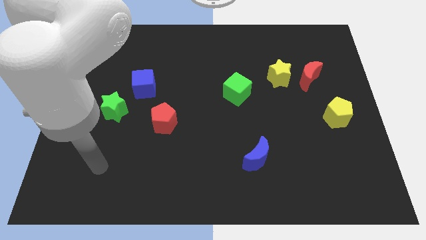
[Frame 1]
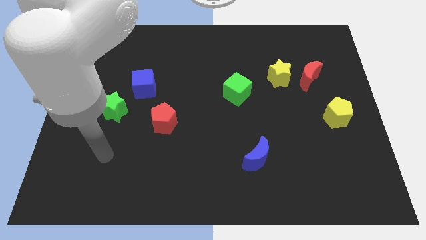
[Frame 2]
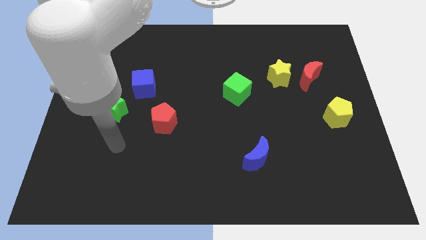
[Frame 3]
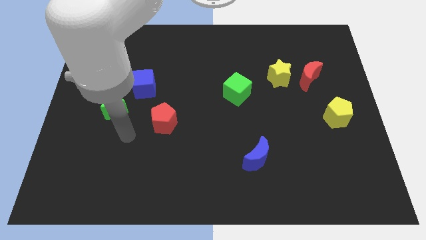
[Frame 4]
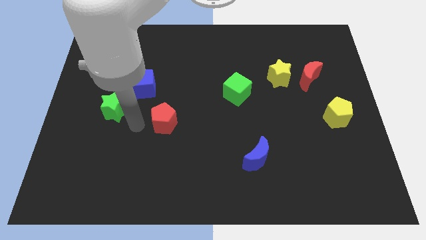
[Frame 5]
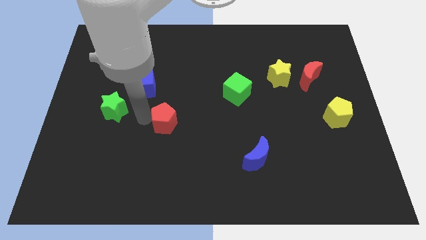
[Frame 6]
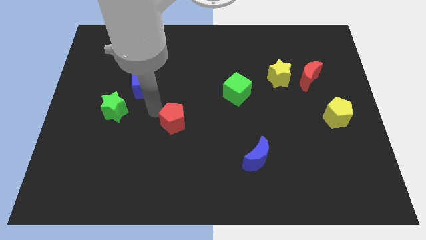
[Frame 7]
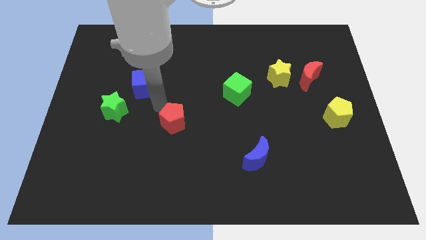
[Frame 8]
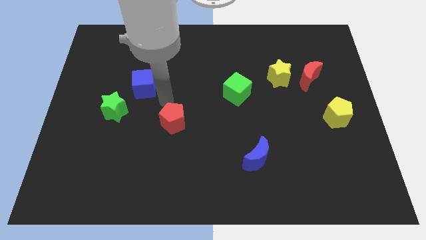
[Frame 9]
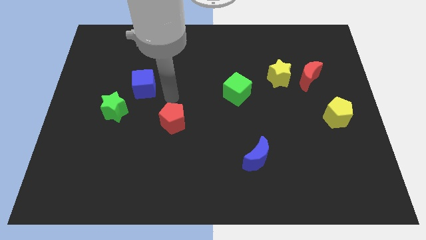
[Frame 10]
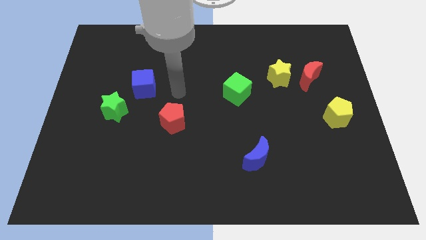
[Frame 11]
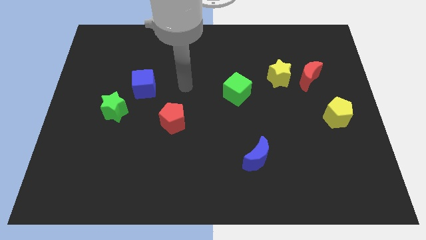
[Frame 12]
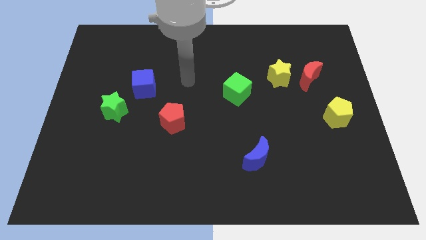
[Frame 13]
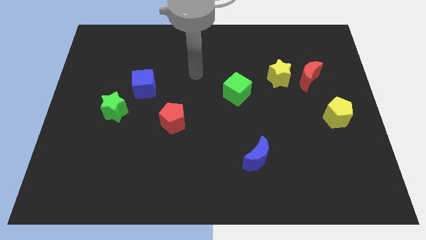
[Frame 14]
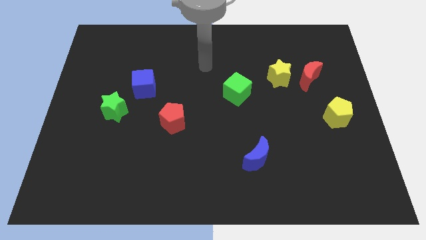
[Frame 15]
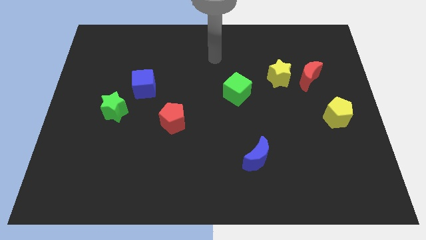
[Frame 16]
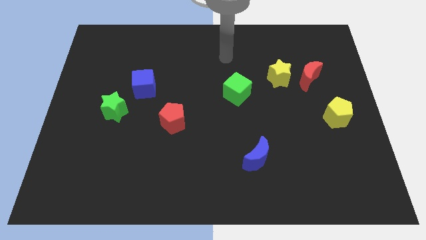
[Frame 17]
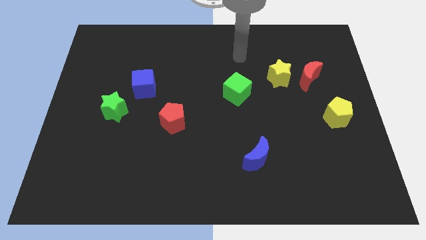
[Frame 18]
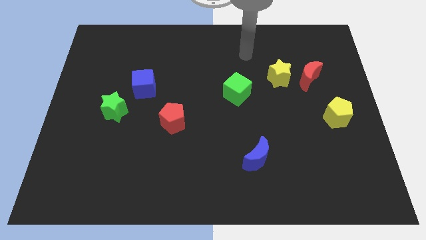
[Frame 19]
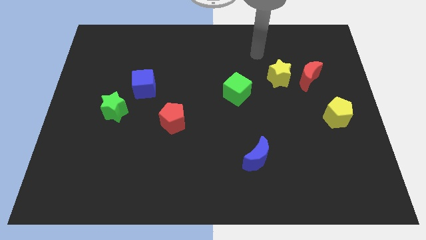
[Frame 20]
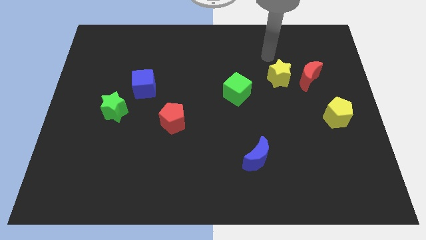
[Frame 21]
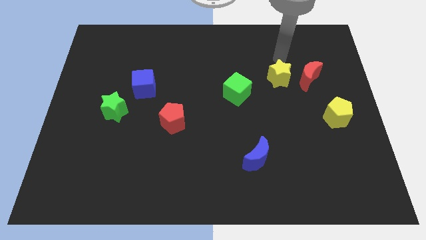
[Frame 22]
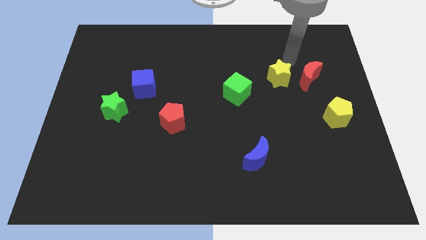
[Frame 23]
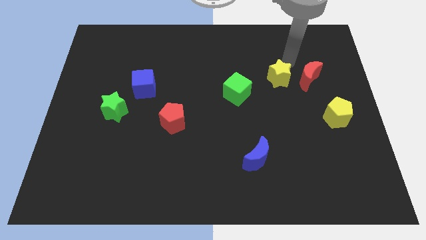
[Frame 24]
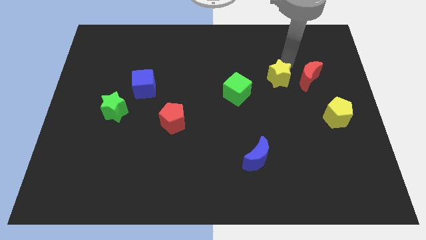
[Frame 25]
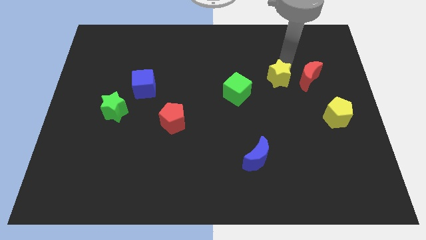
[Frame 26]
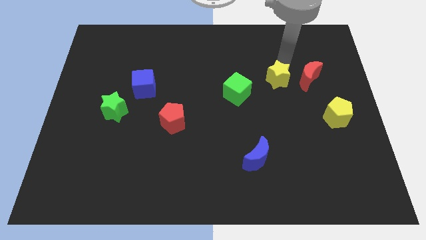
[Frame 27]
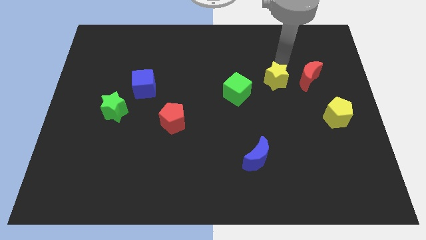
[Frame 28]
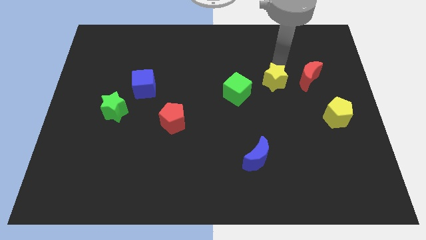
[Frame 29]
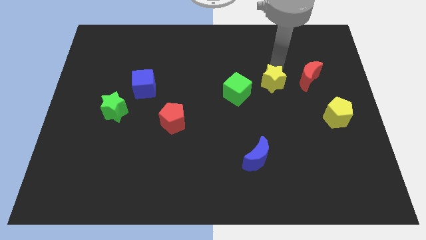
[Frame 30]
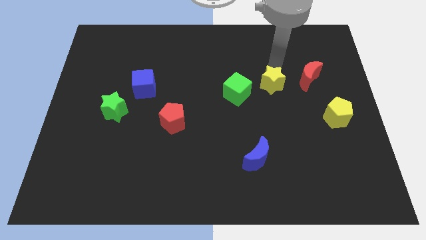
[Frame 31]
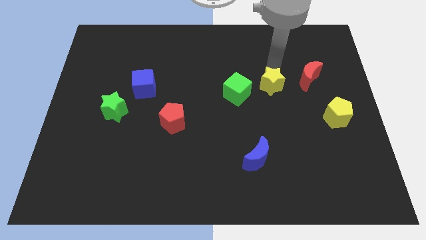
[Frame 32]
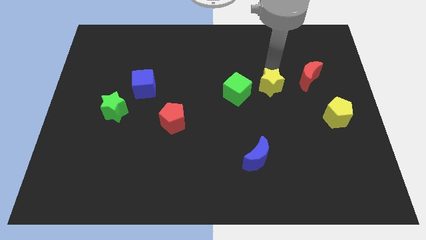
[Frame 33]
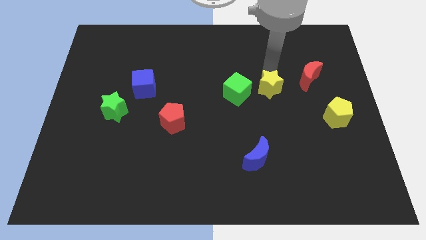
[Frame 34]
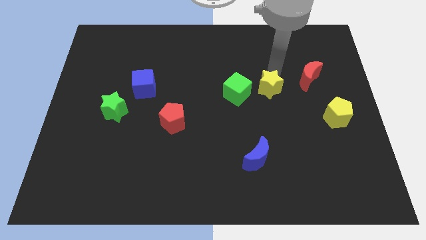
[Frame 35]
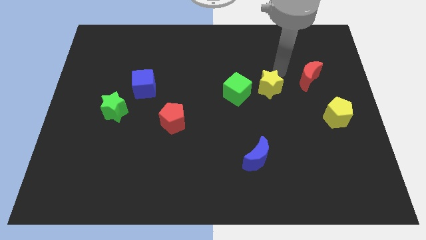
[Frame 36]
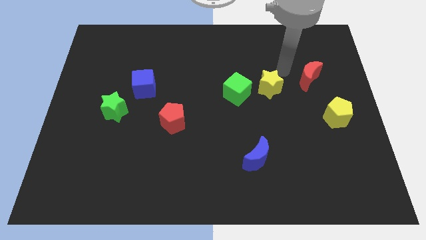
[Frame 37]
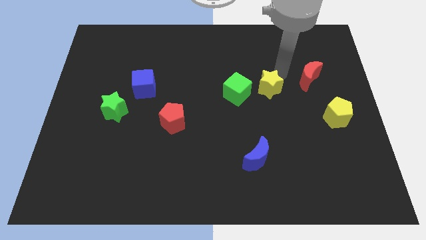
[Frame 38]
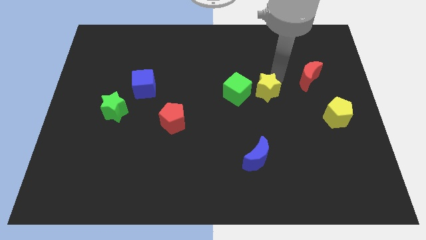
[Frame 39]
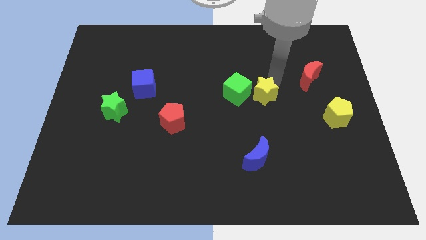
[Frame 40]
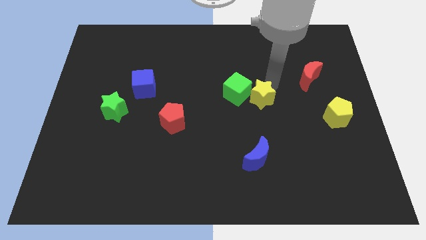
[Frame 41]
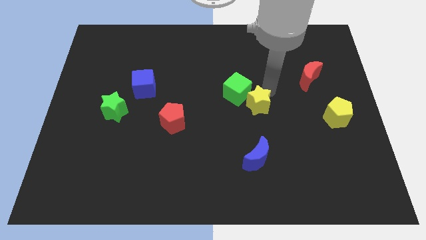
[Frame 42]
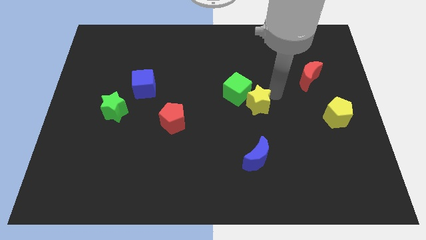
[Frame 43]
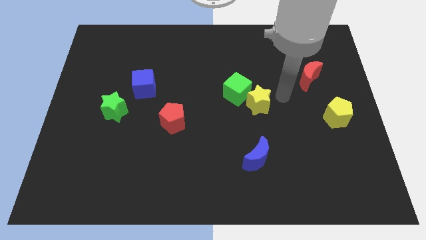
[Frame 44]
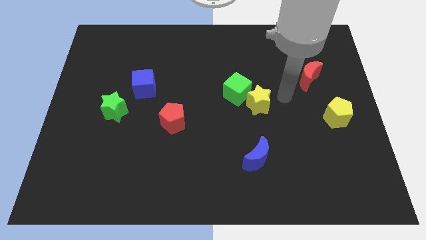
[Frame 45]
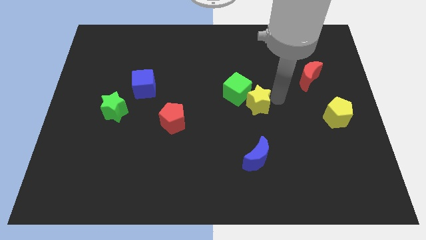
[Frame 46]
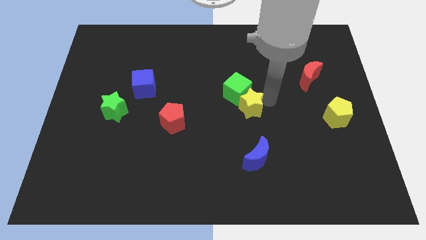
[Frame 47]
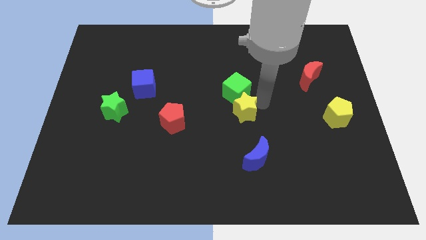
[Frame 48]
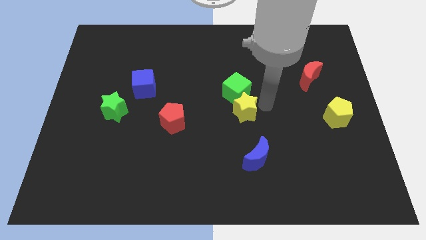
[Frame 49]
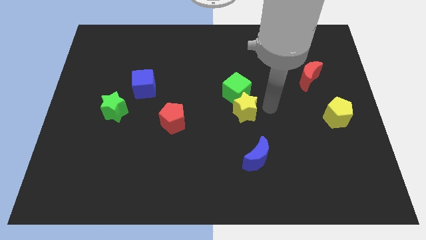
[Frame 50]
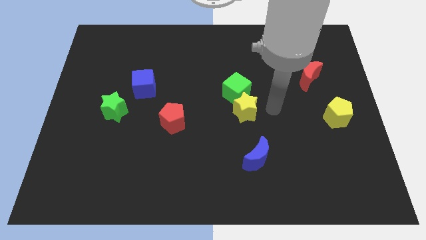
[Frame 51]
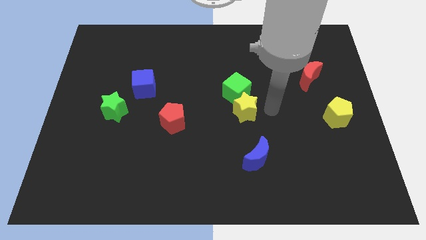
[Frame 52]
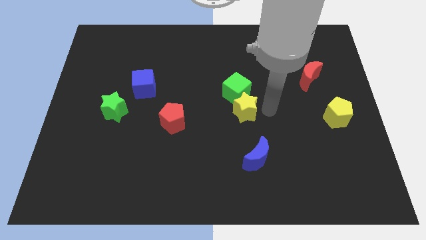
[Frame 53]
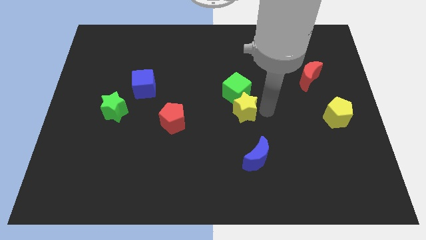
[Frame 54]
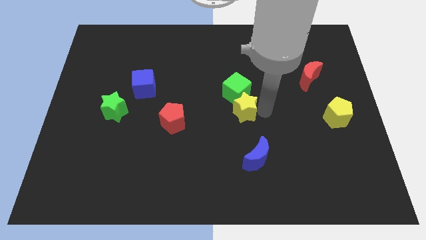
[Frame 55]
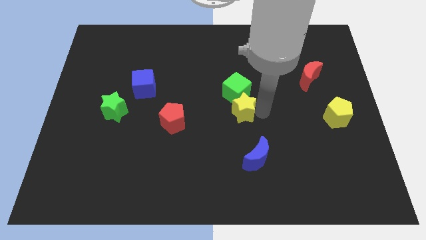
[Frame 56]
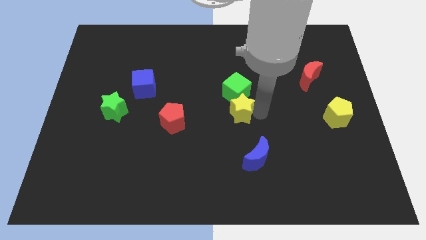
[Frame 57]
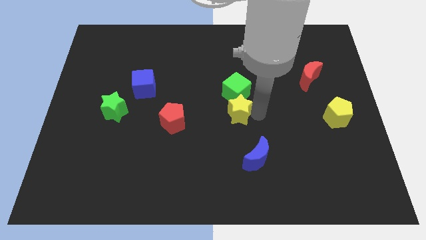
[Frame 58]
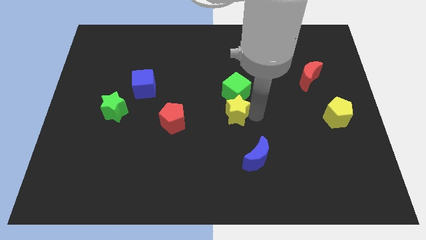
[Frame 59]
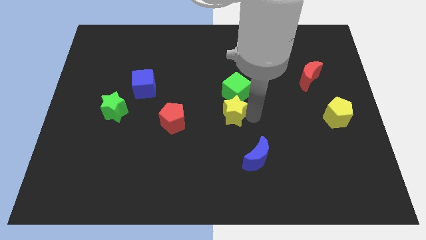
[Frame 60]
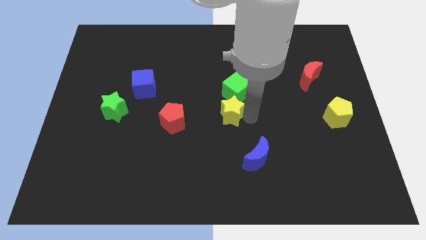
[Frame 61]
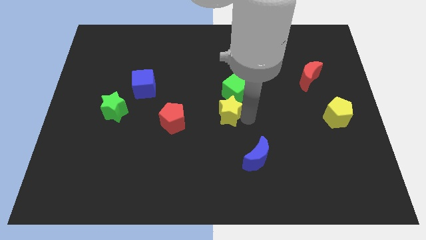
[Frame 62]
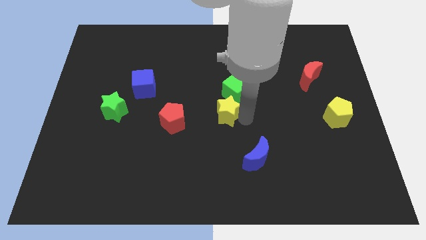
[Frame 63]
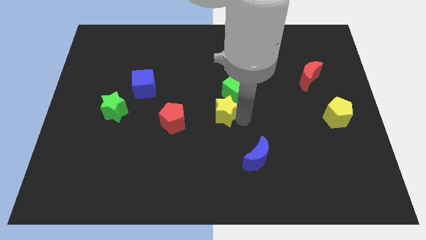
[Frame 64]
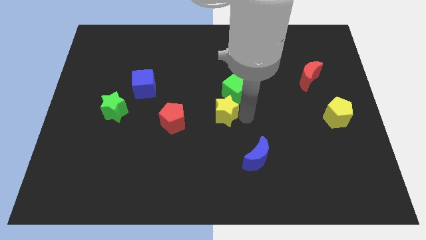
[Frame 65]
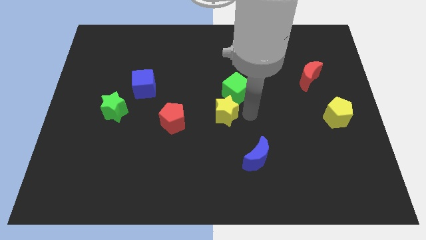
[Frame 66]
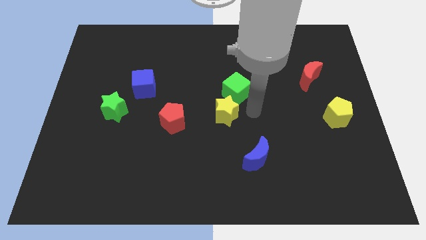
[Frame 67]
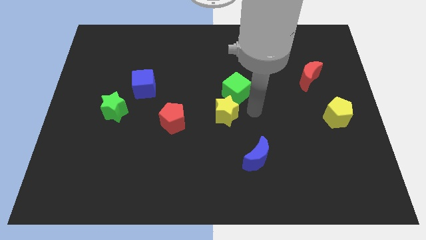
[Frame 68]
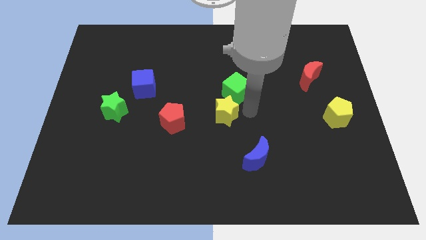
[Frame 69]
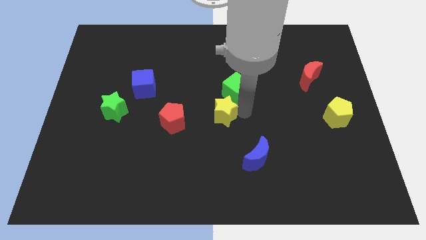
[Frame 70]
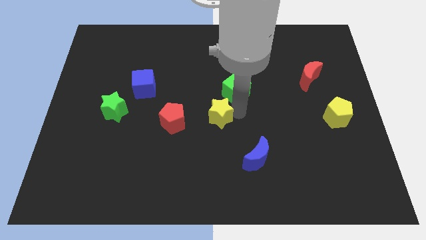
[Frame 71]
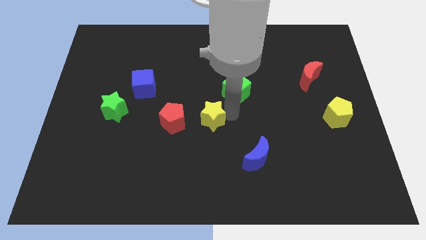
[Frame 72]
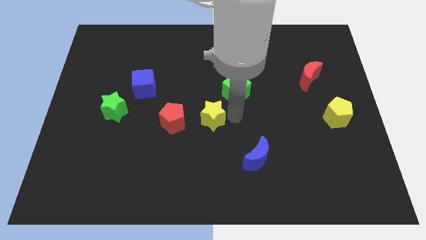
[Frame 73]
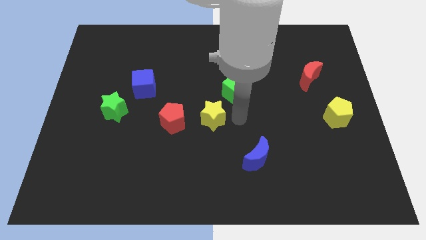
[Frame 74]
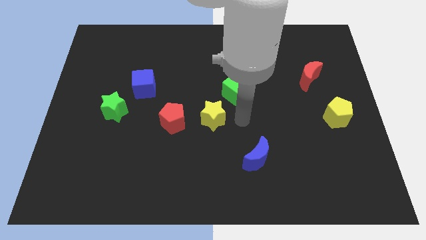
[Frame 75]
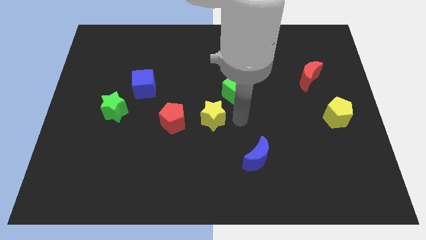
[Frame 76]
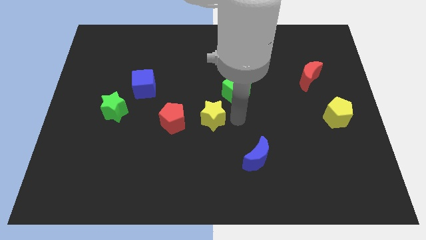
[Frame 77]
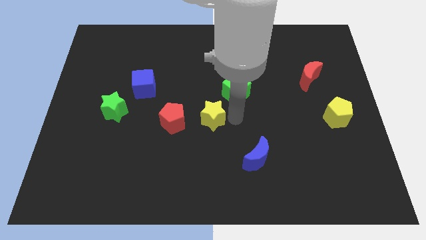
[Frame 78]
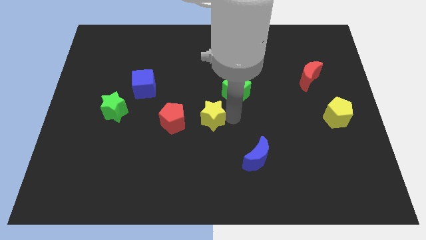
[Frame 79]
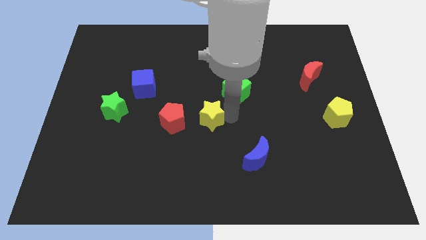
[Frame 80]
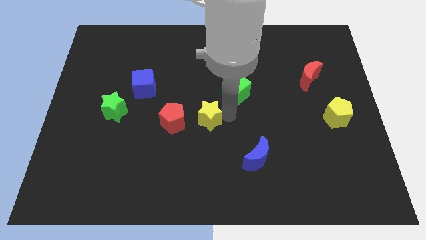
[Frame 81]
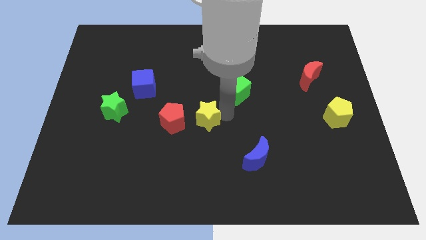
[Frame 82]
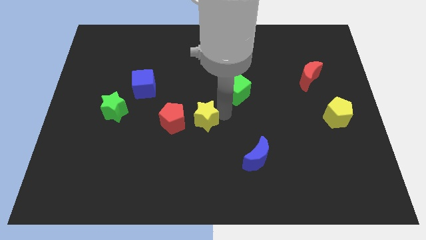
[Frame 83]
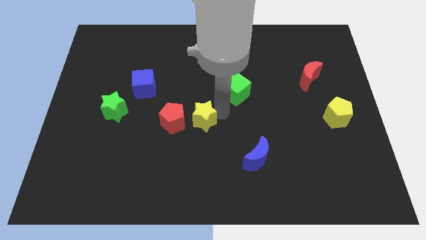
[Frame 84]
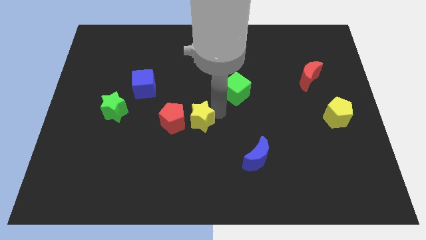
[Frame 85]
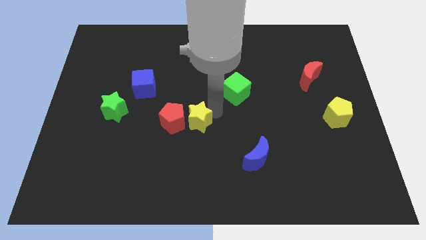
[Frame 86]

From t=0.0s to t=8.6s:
put the yellow star towards the red pentagon
